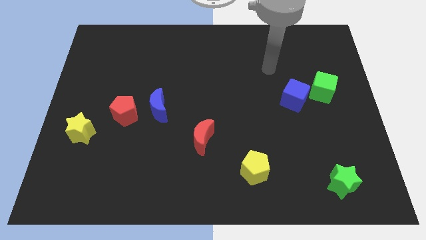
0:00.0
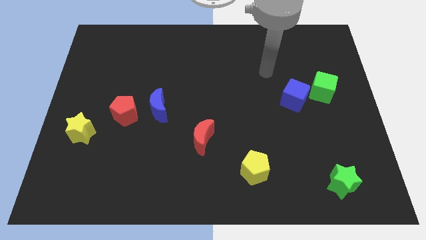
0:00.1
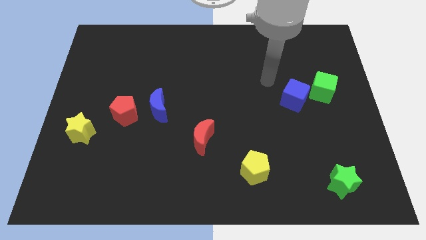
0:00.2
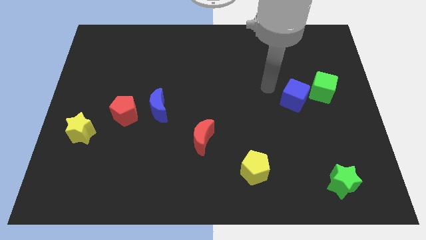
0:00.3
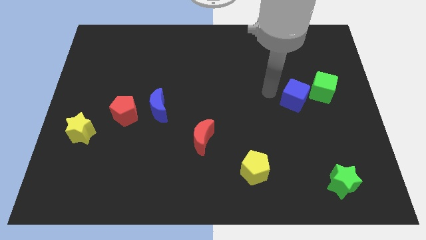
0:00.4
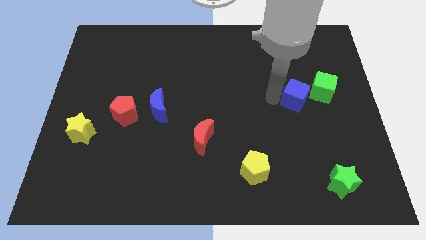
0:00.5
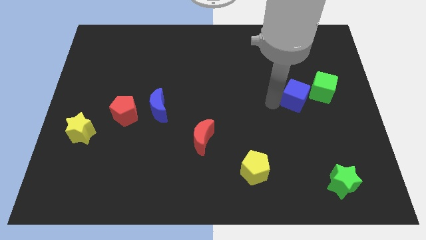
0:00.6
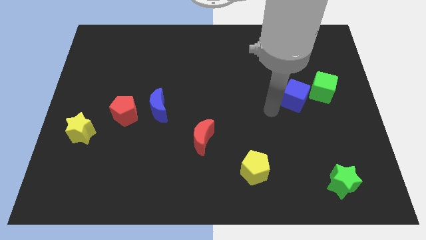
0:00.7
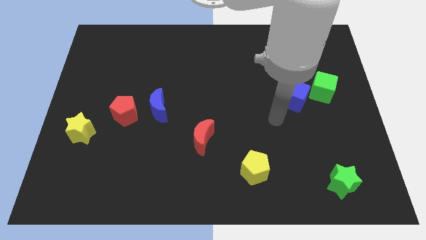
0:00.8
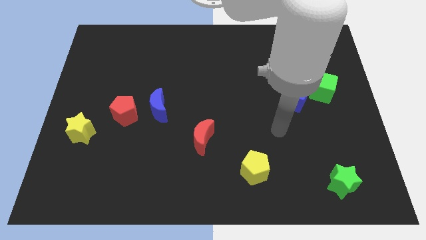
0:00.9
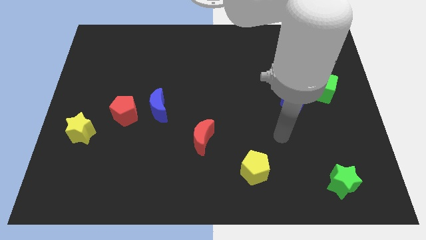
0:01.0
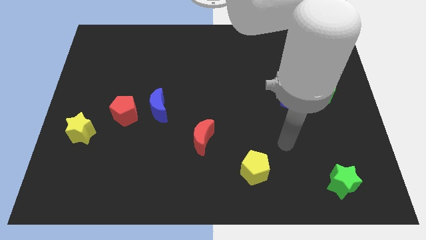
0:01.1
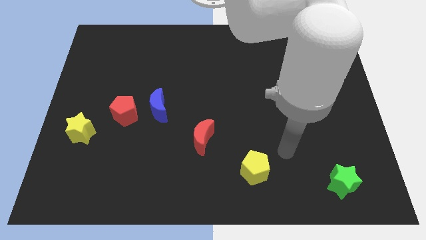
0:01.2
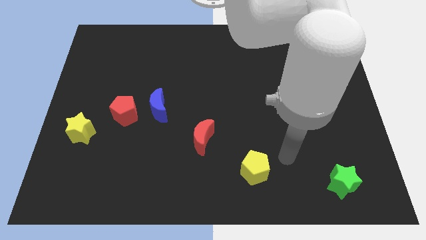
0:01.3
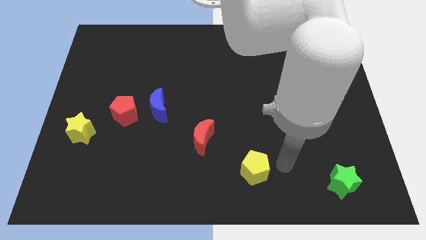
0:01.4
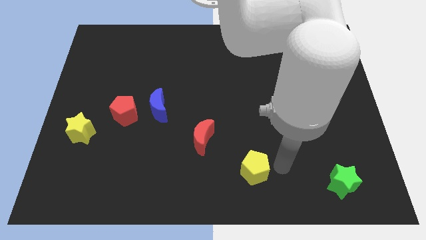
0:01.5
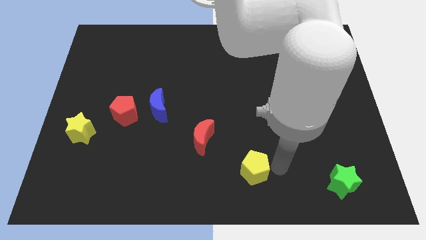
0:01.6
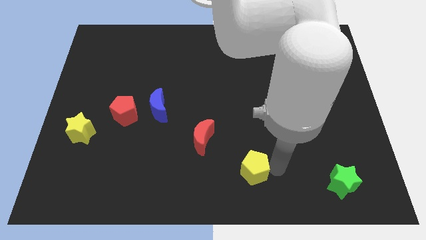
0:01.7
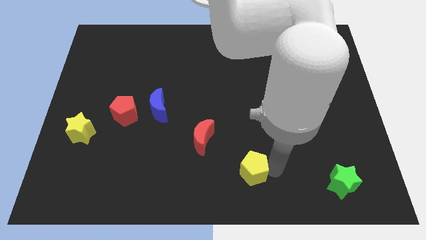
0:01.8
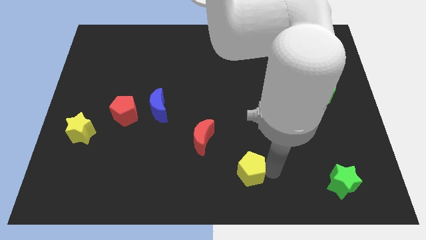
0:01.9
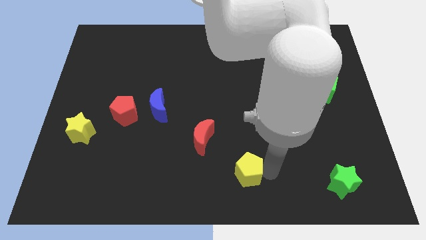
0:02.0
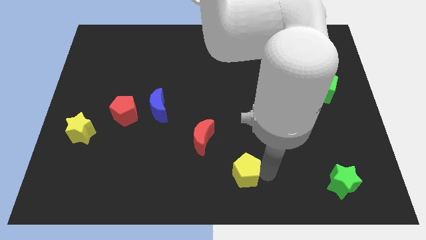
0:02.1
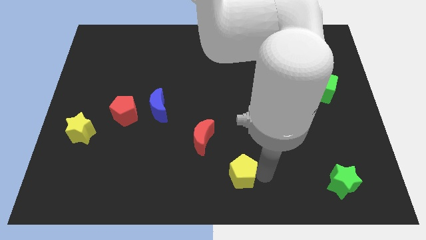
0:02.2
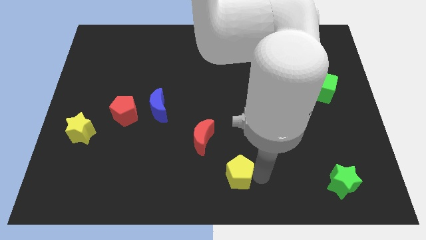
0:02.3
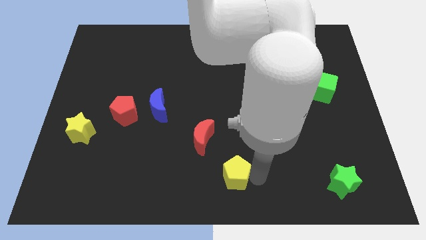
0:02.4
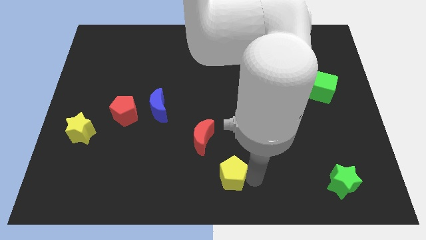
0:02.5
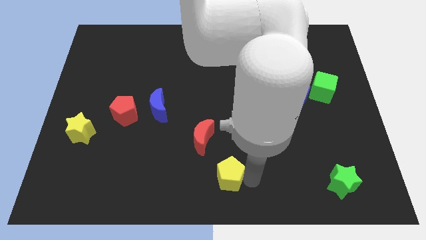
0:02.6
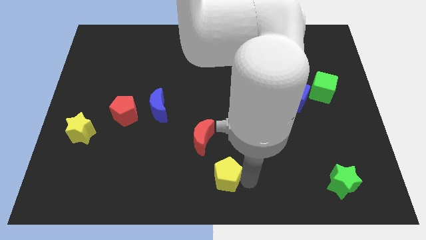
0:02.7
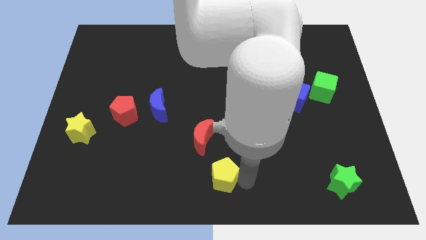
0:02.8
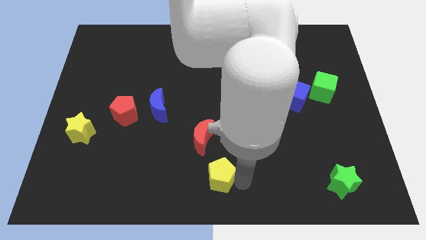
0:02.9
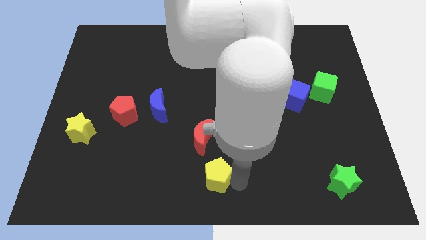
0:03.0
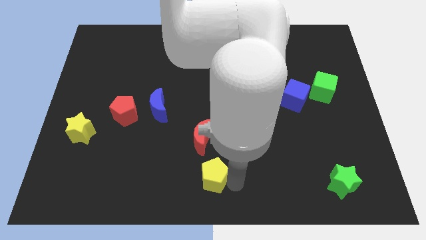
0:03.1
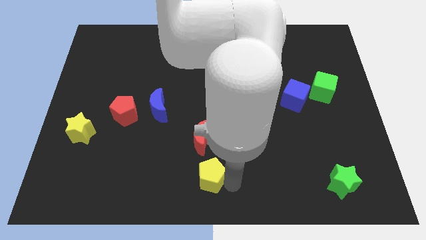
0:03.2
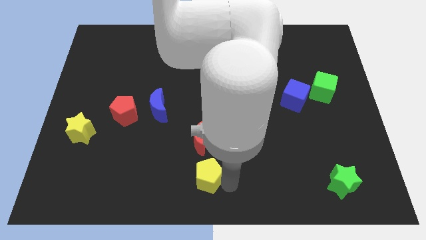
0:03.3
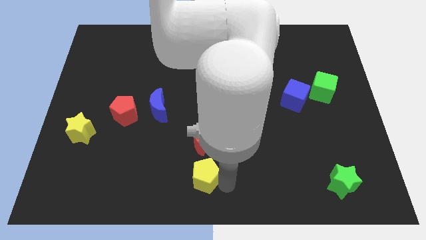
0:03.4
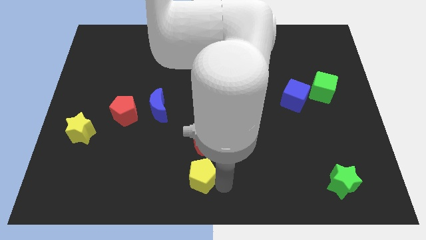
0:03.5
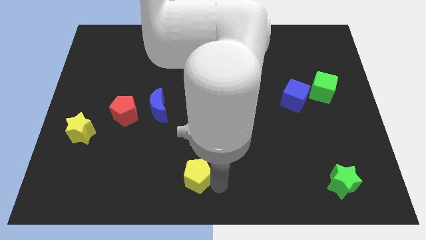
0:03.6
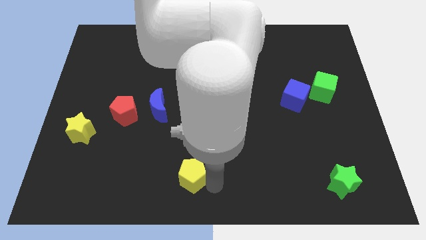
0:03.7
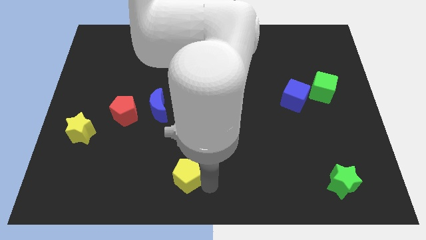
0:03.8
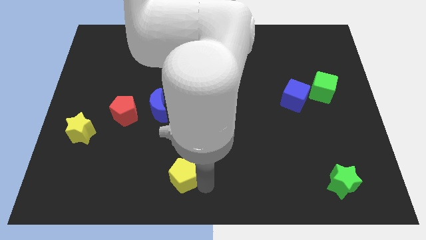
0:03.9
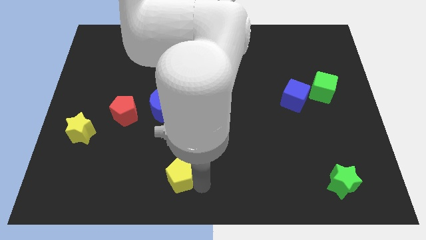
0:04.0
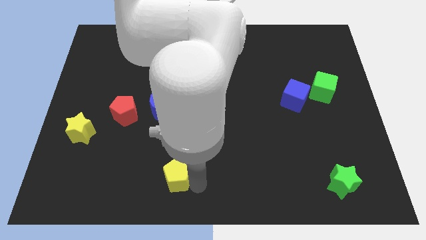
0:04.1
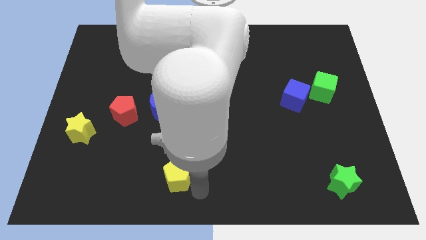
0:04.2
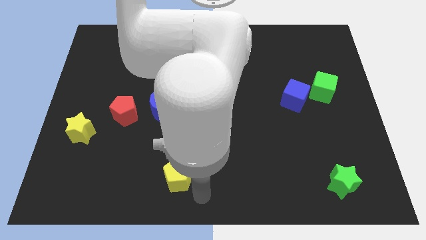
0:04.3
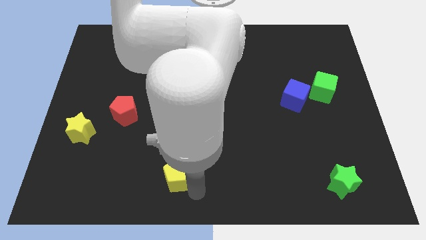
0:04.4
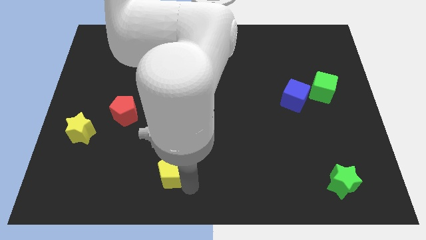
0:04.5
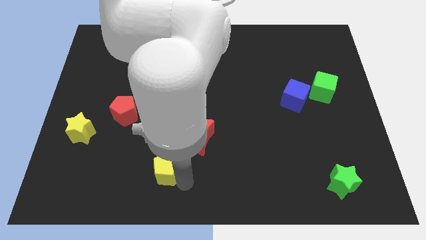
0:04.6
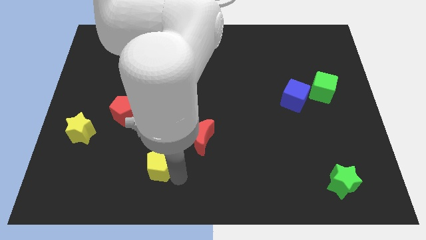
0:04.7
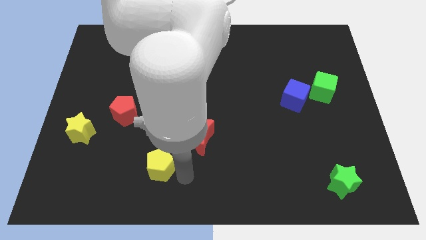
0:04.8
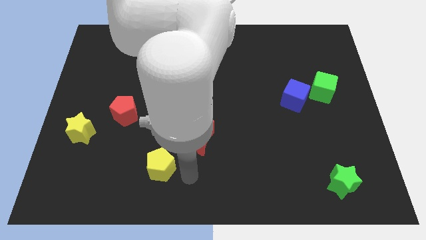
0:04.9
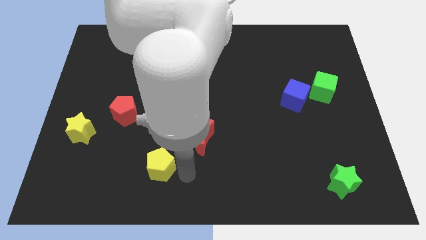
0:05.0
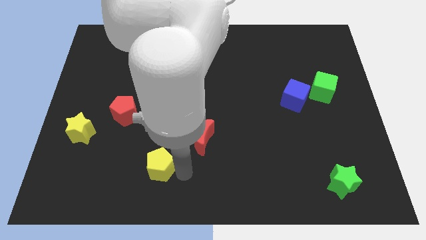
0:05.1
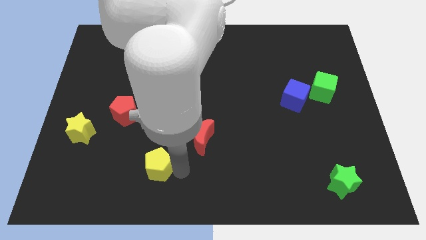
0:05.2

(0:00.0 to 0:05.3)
push the yellow pentagon left

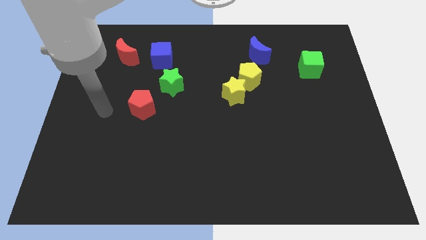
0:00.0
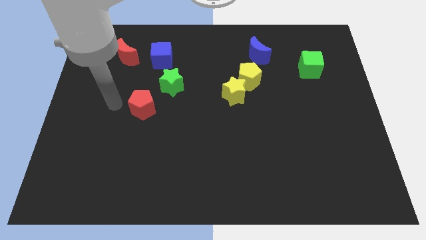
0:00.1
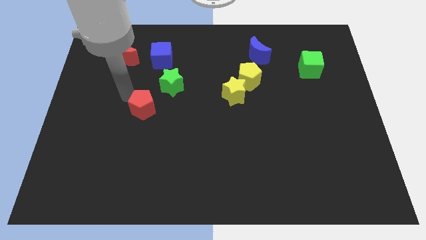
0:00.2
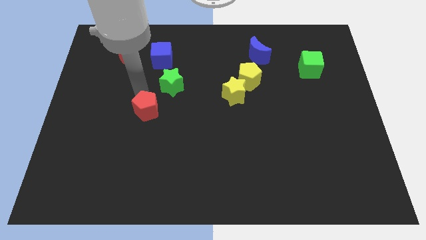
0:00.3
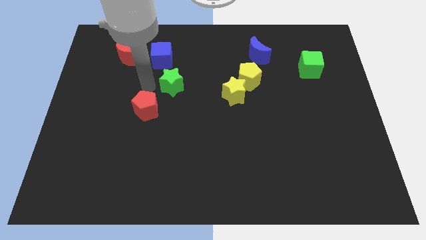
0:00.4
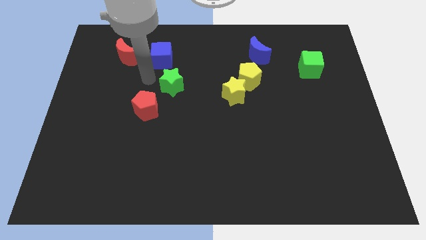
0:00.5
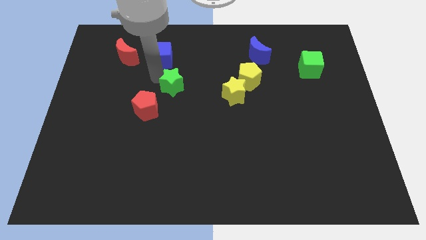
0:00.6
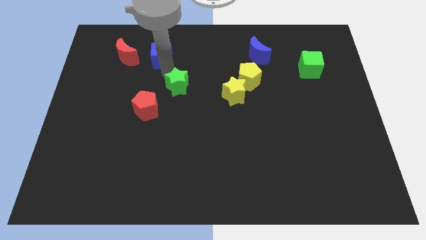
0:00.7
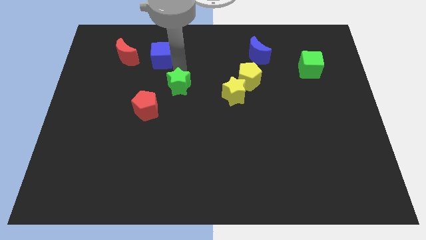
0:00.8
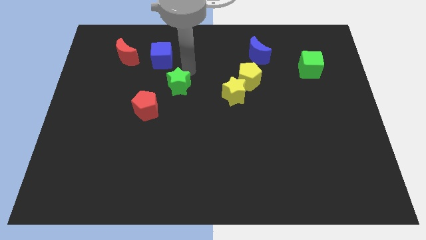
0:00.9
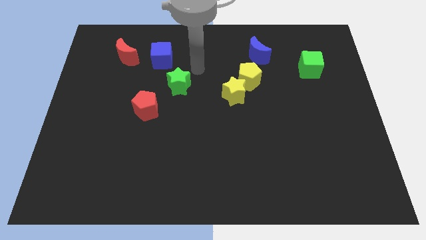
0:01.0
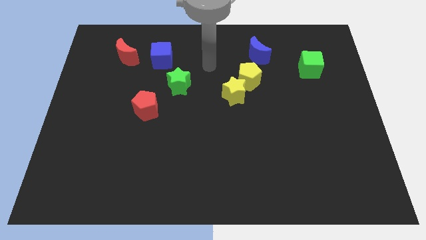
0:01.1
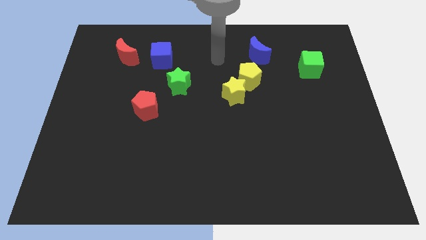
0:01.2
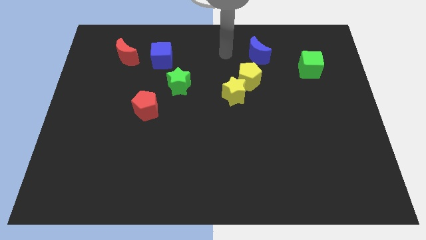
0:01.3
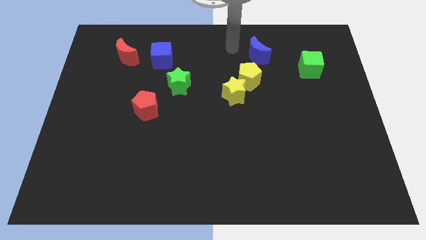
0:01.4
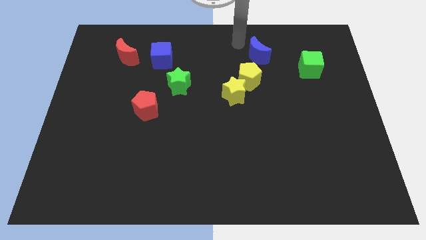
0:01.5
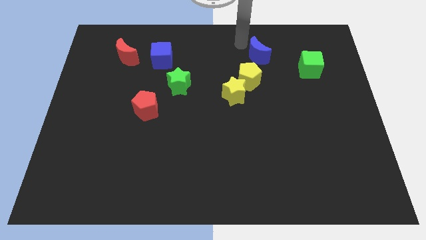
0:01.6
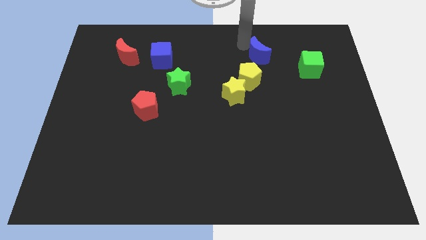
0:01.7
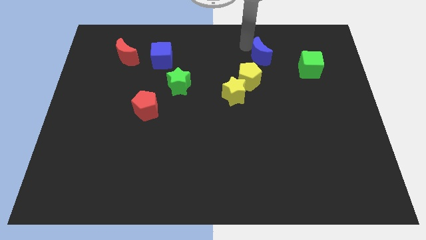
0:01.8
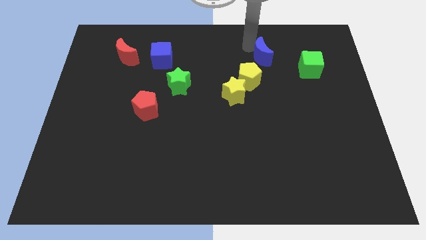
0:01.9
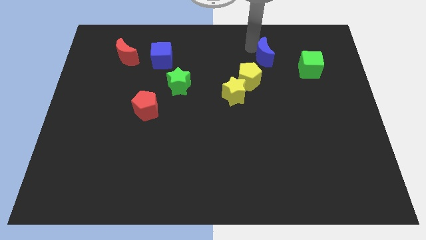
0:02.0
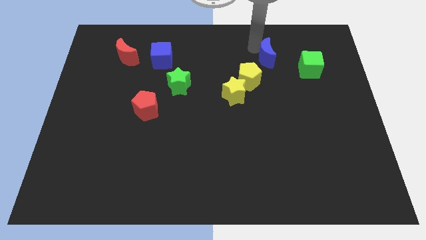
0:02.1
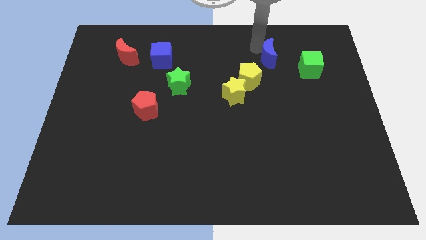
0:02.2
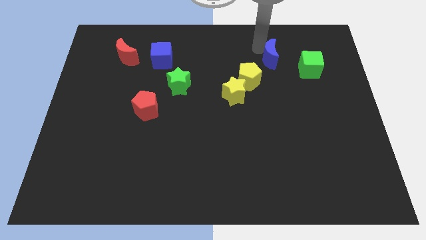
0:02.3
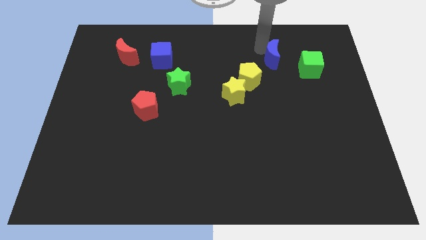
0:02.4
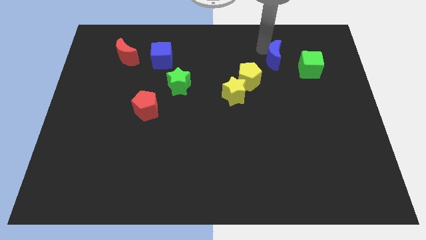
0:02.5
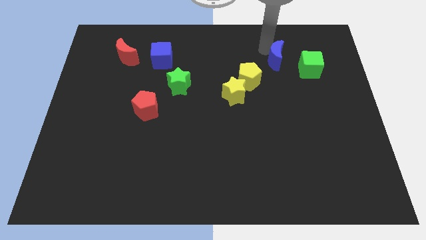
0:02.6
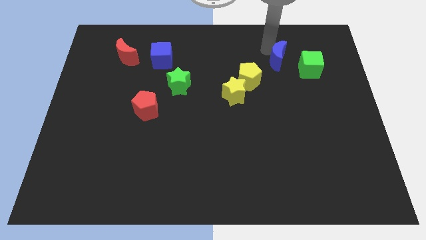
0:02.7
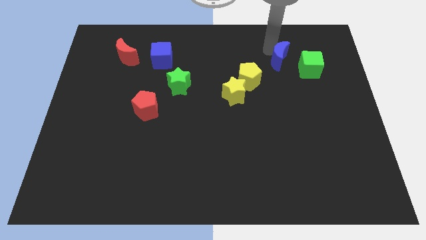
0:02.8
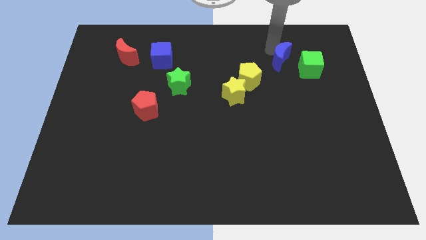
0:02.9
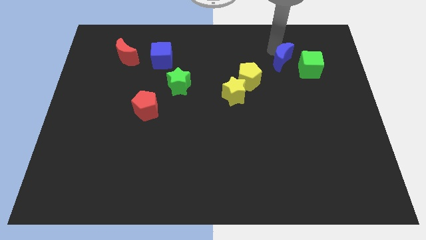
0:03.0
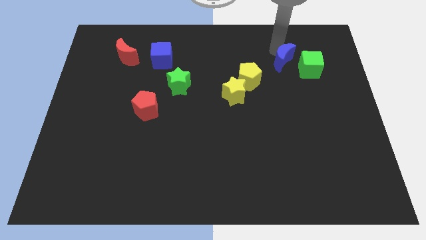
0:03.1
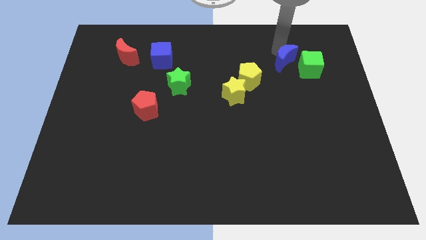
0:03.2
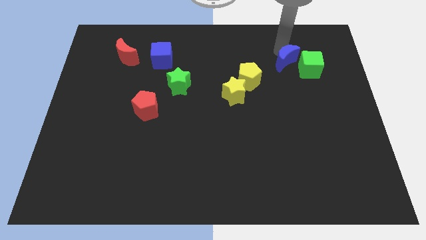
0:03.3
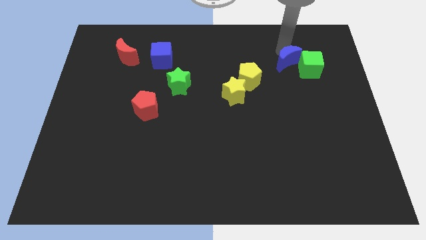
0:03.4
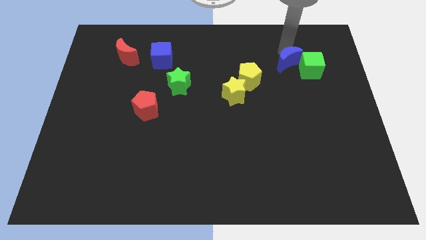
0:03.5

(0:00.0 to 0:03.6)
move the blue moon down and to the right somewhat
